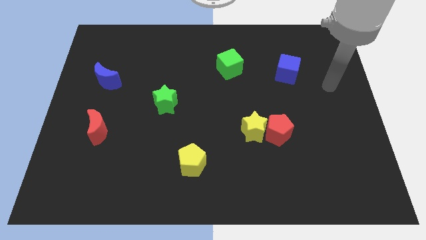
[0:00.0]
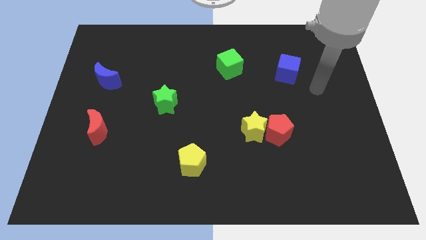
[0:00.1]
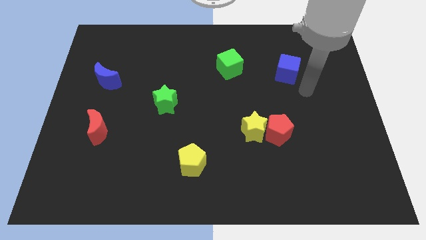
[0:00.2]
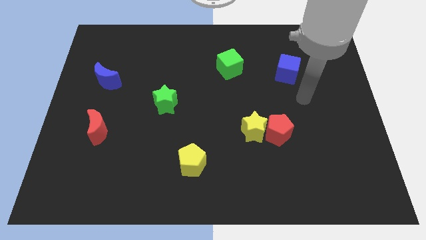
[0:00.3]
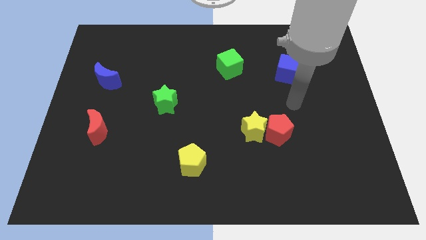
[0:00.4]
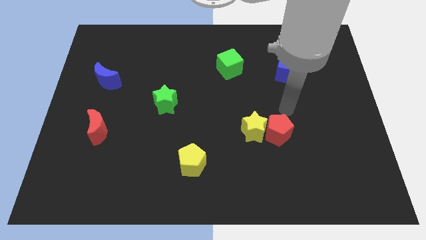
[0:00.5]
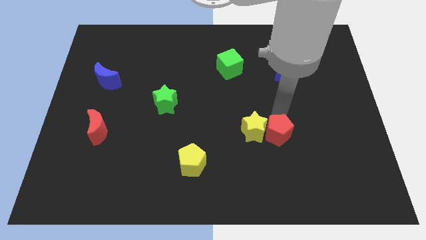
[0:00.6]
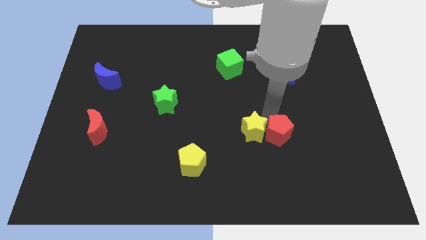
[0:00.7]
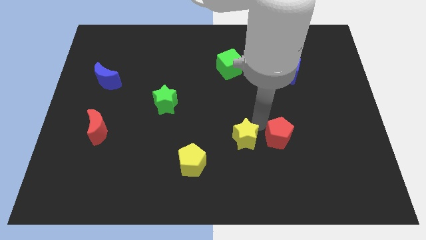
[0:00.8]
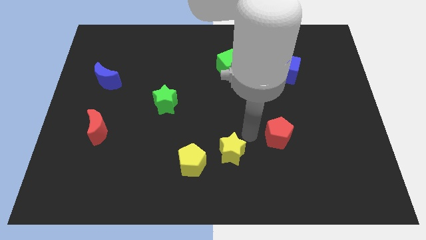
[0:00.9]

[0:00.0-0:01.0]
separate the red pentagon from the yellow star

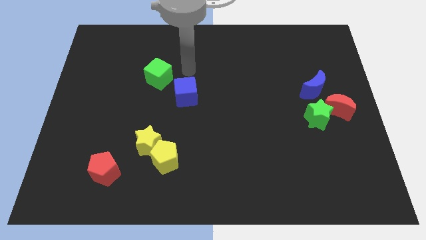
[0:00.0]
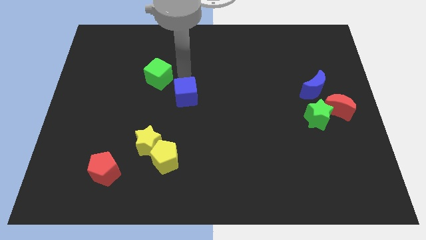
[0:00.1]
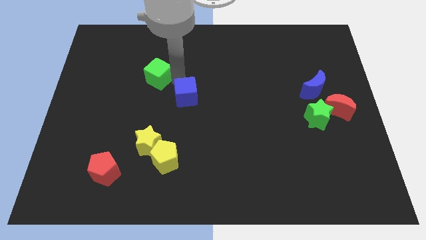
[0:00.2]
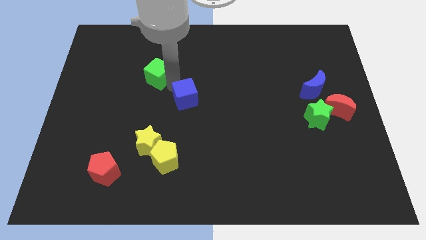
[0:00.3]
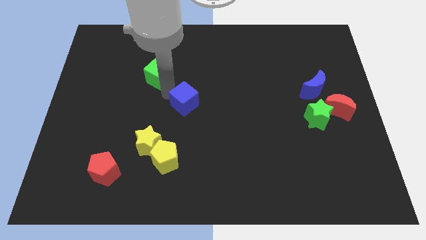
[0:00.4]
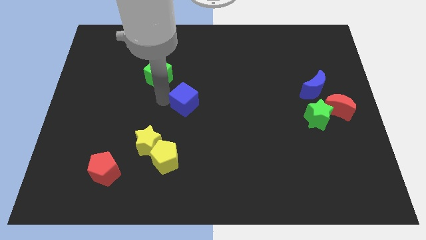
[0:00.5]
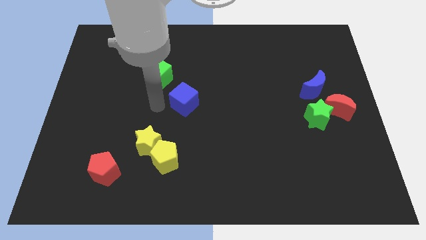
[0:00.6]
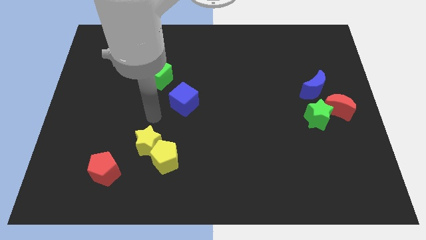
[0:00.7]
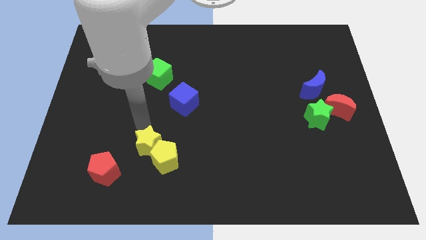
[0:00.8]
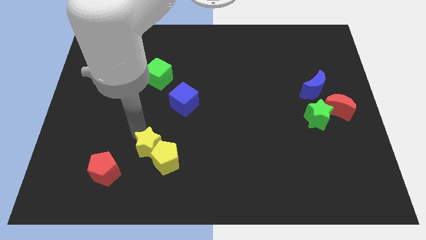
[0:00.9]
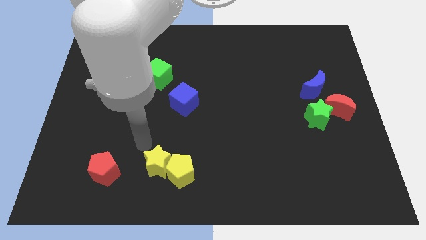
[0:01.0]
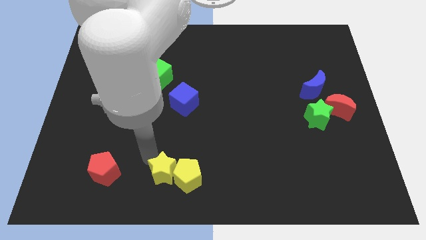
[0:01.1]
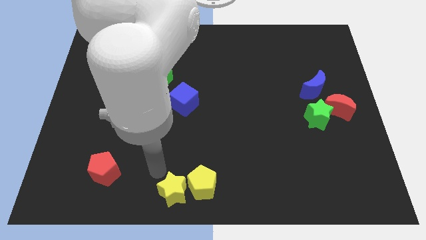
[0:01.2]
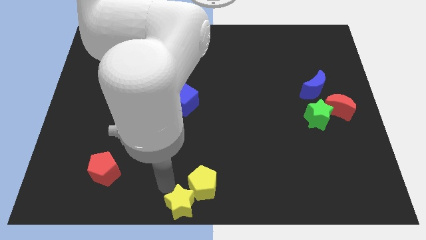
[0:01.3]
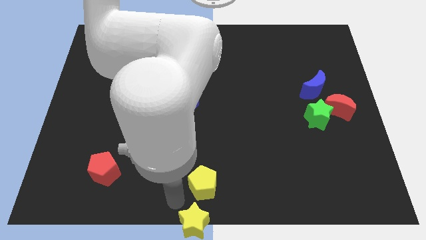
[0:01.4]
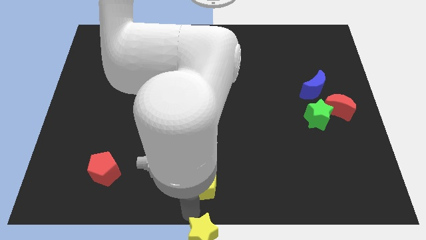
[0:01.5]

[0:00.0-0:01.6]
separate the yellow pentagon from the yellow star

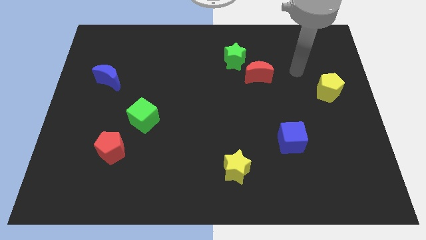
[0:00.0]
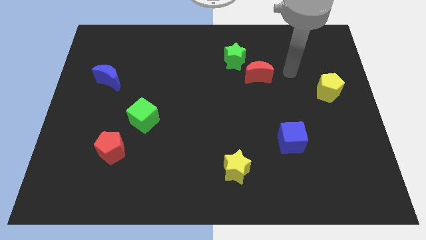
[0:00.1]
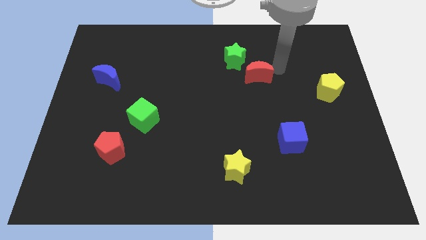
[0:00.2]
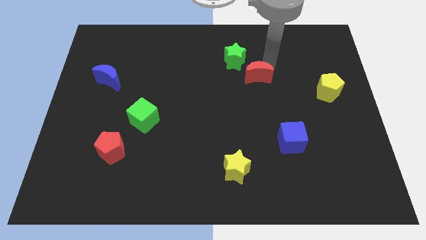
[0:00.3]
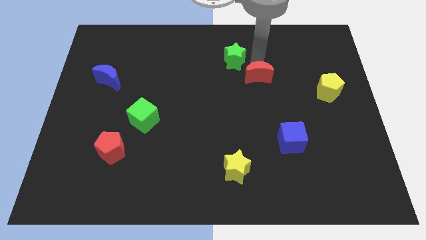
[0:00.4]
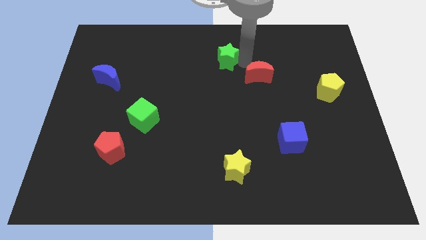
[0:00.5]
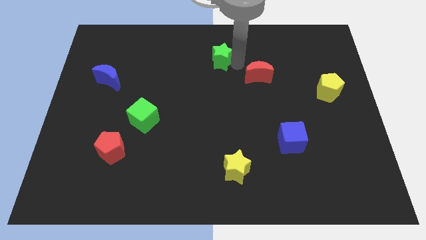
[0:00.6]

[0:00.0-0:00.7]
separate the red moon from the green star

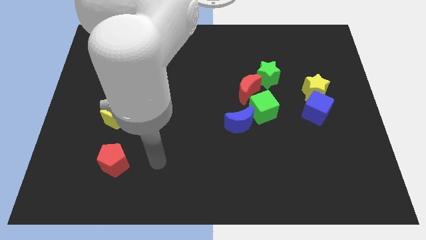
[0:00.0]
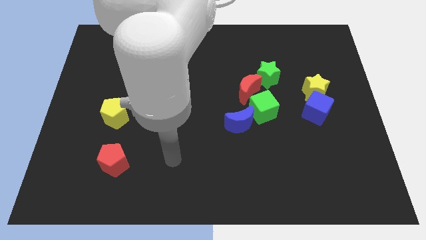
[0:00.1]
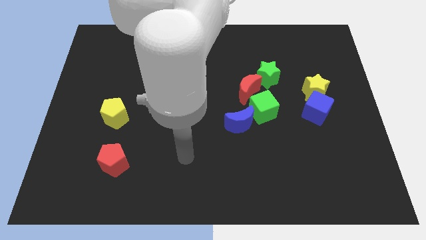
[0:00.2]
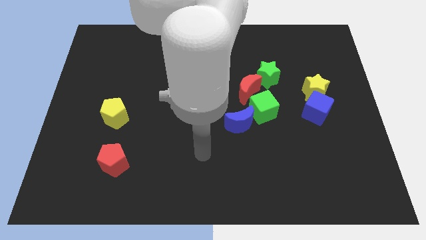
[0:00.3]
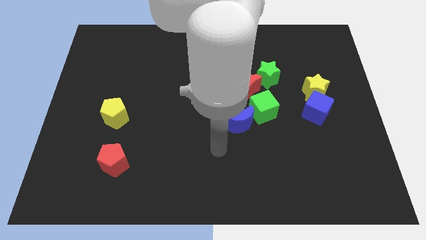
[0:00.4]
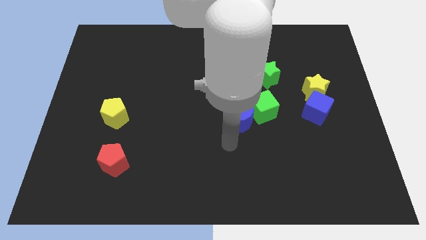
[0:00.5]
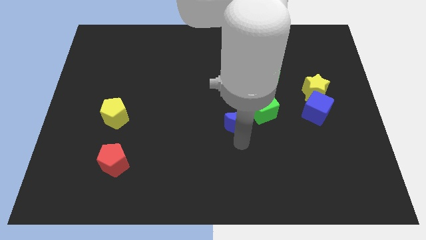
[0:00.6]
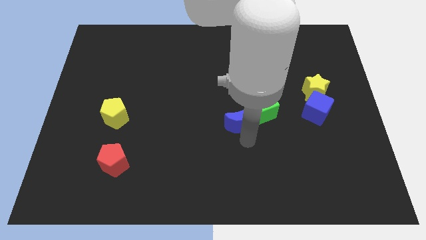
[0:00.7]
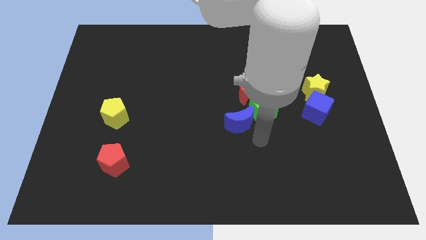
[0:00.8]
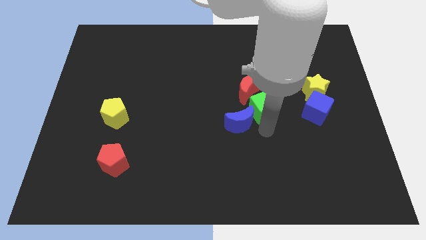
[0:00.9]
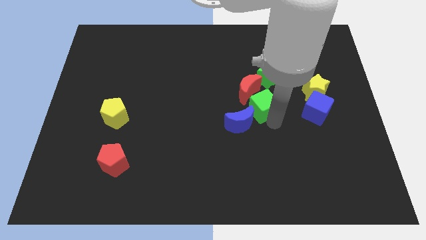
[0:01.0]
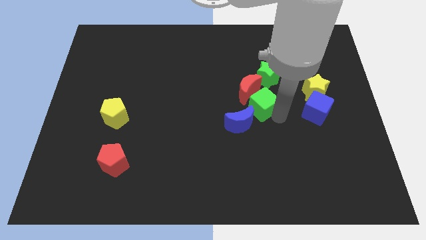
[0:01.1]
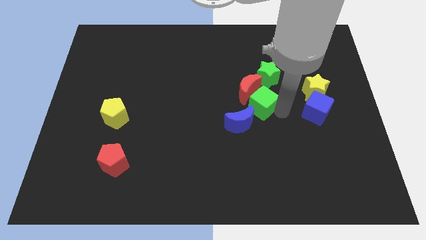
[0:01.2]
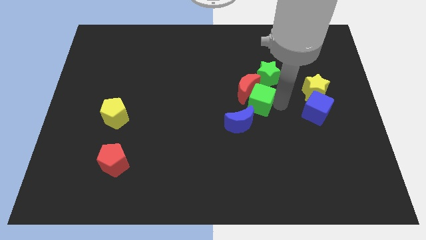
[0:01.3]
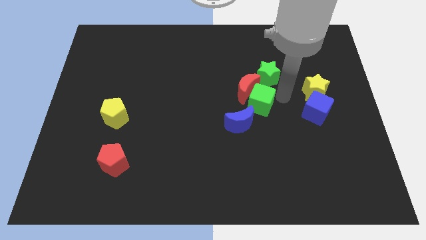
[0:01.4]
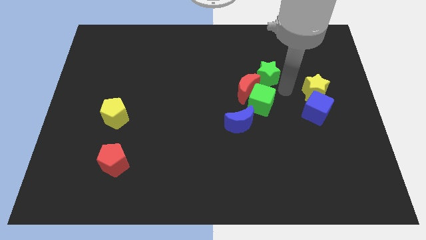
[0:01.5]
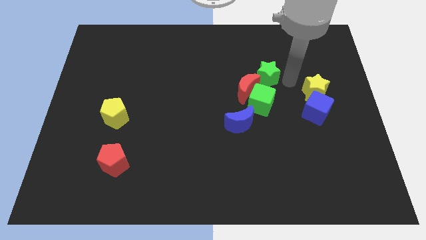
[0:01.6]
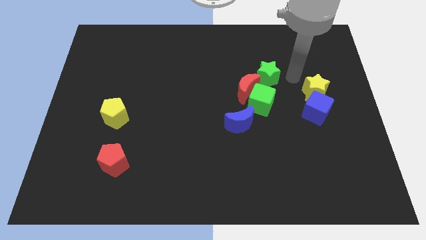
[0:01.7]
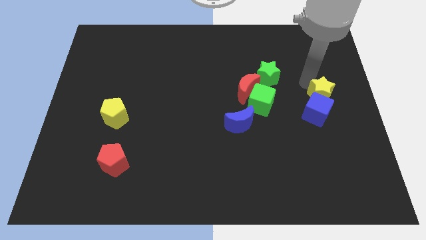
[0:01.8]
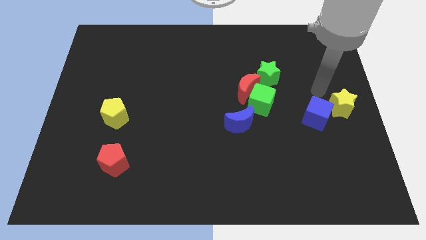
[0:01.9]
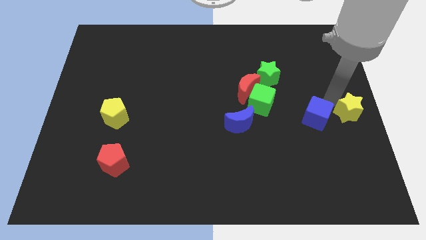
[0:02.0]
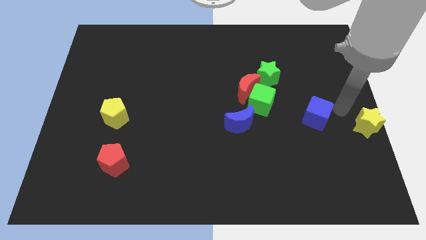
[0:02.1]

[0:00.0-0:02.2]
pull the blue cube apart from the yellow star

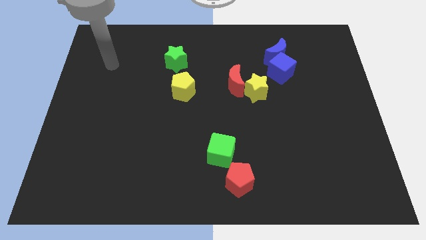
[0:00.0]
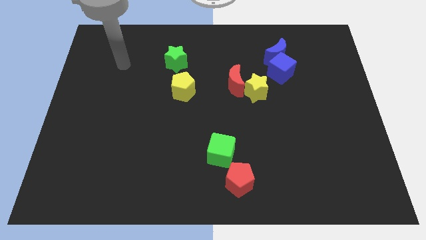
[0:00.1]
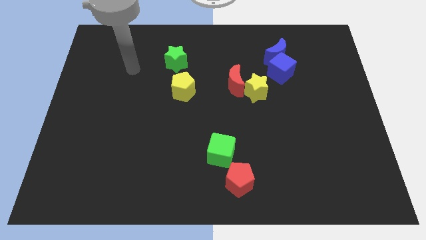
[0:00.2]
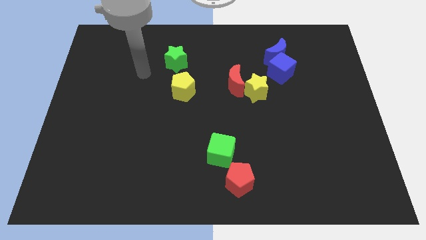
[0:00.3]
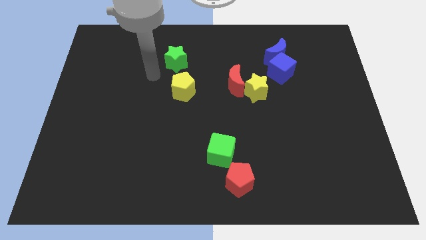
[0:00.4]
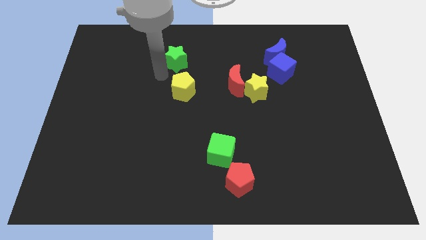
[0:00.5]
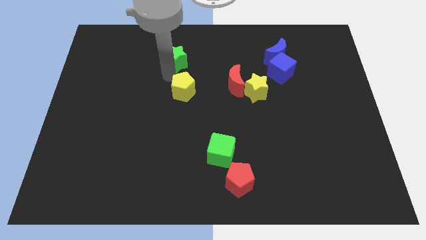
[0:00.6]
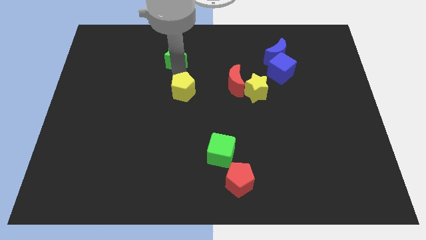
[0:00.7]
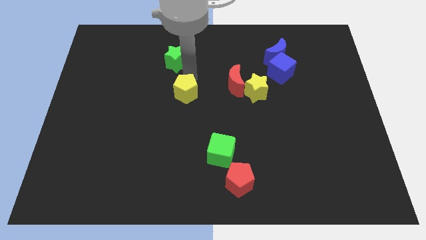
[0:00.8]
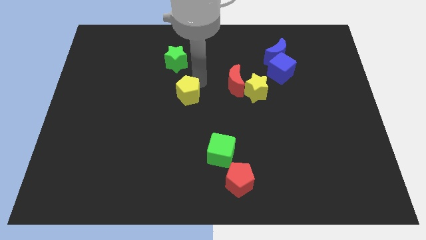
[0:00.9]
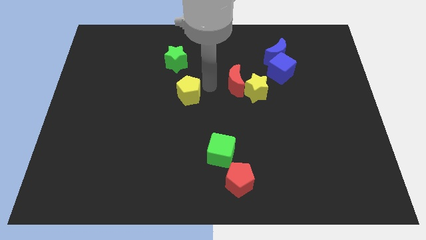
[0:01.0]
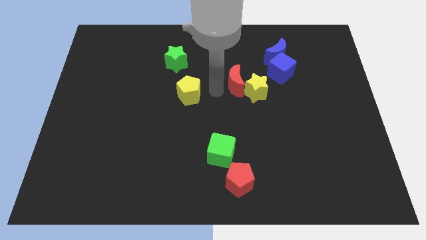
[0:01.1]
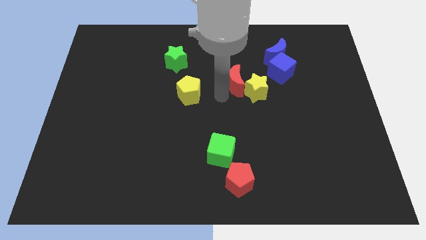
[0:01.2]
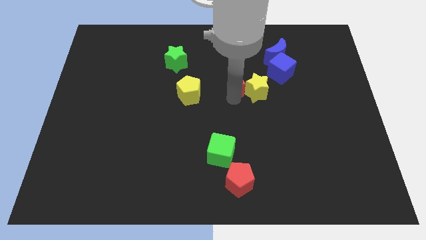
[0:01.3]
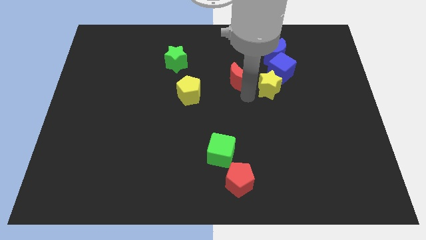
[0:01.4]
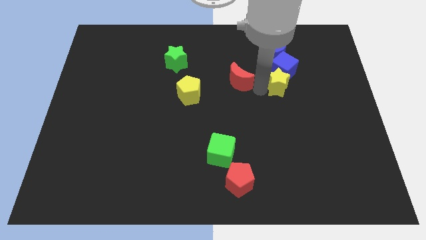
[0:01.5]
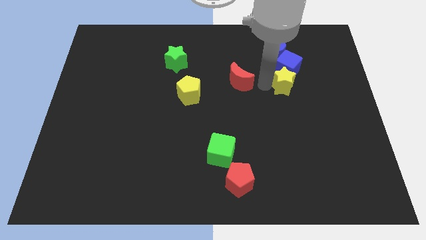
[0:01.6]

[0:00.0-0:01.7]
separate the red moon from the yellow star

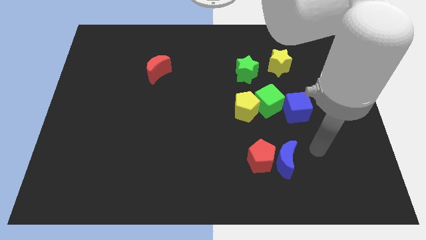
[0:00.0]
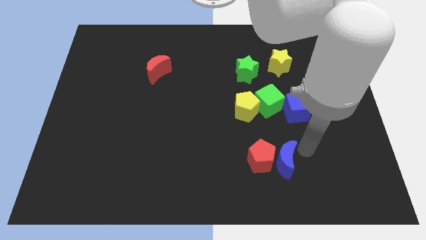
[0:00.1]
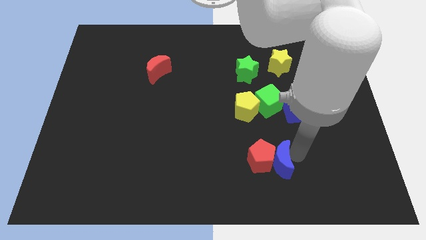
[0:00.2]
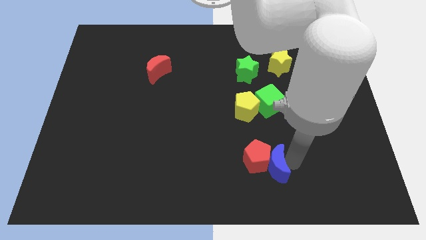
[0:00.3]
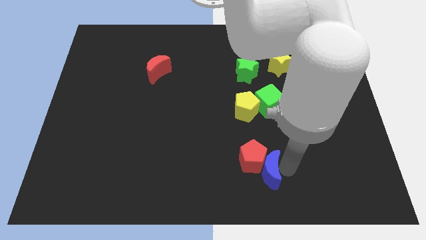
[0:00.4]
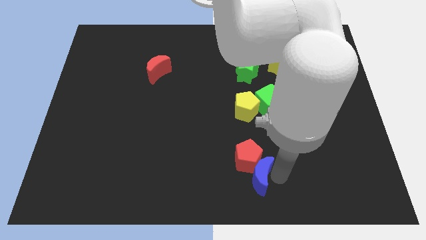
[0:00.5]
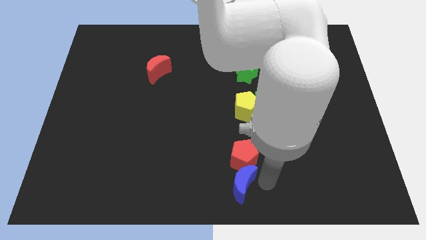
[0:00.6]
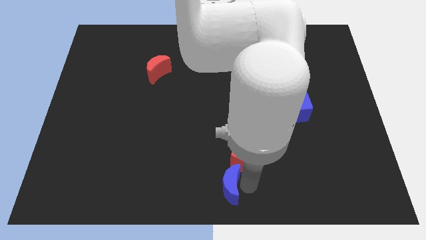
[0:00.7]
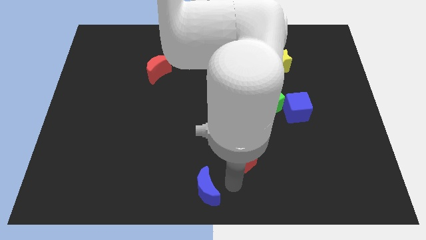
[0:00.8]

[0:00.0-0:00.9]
separate the red pentagon from the blue moon

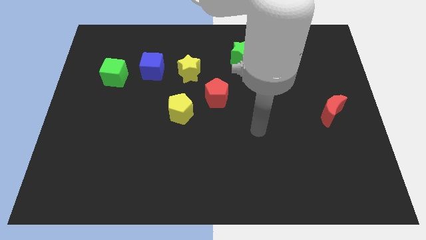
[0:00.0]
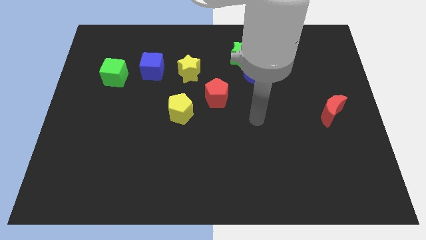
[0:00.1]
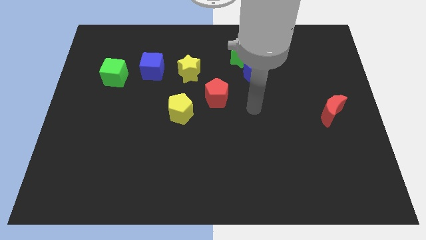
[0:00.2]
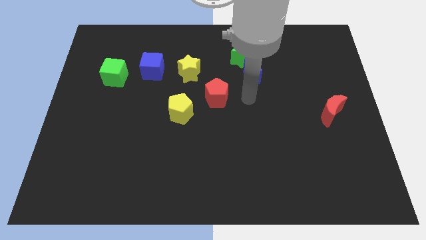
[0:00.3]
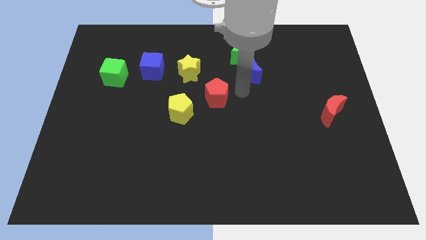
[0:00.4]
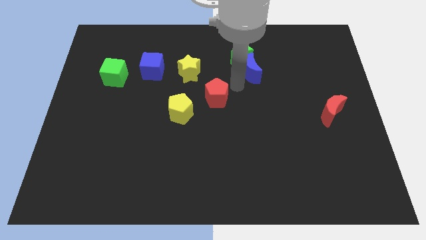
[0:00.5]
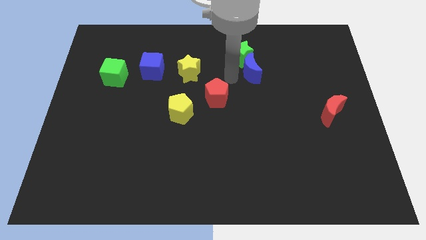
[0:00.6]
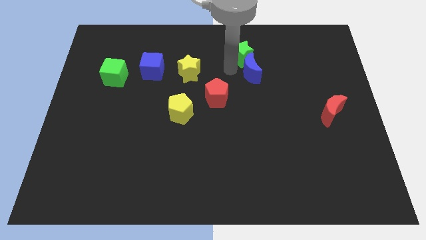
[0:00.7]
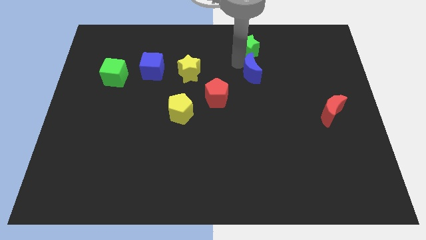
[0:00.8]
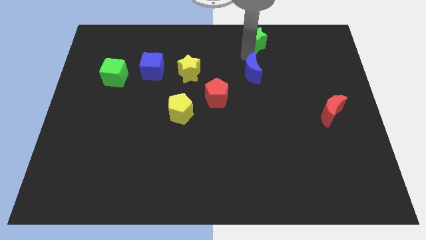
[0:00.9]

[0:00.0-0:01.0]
separate the blue moon from the green star
